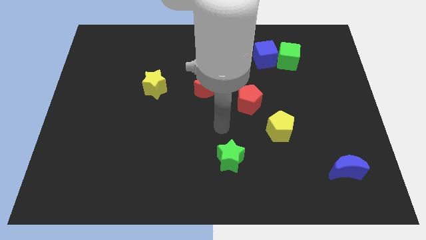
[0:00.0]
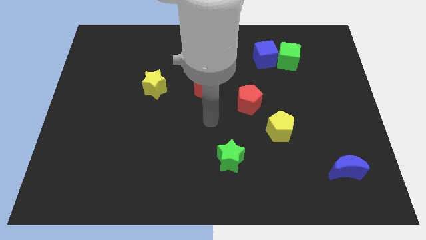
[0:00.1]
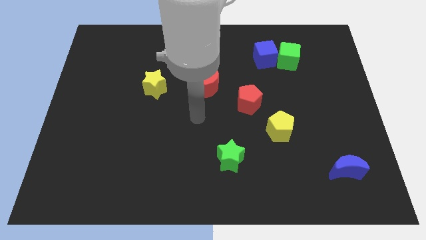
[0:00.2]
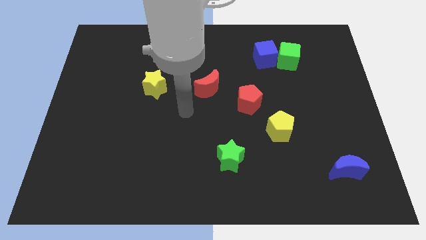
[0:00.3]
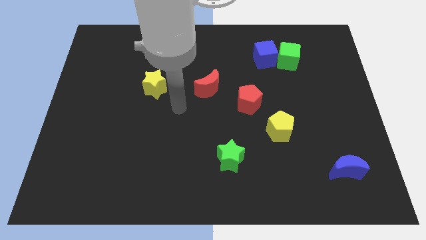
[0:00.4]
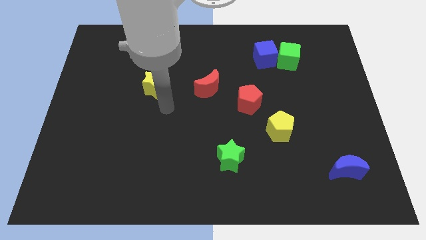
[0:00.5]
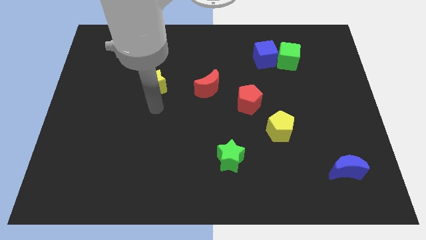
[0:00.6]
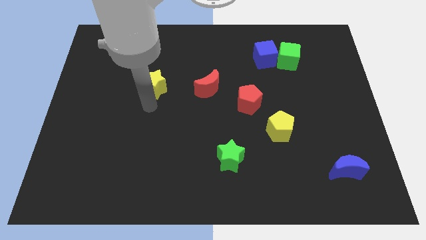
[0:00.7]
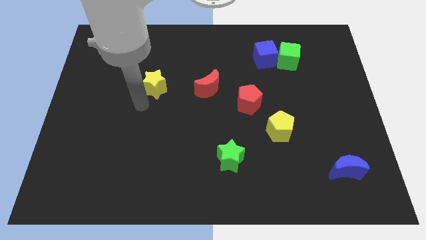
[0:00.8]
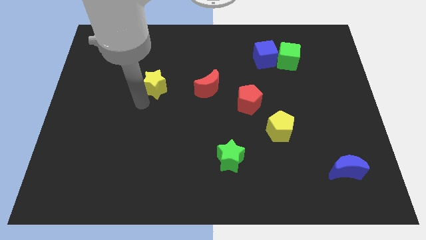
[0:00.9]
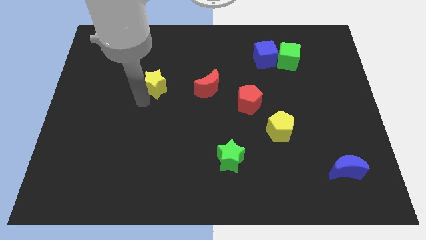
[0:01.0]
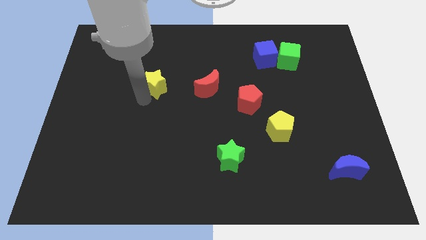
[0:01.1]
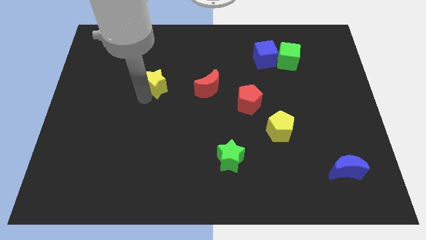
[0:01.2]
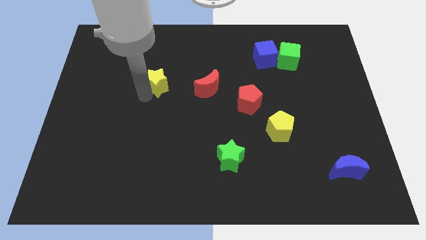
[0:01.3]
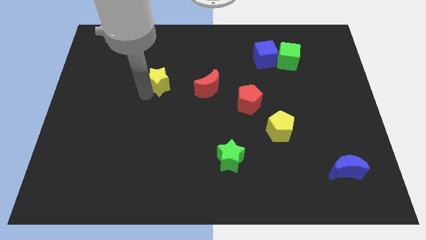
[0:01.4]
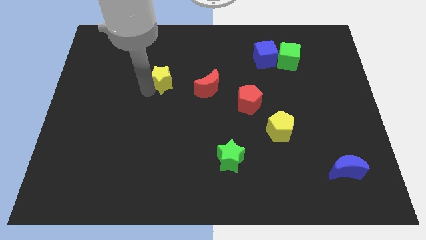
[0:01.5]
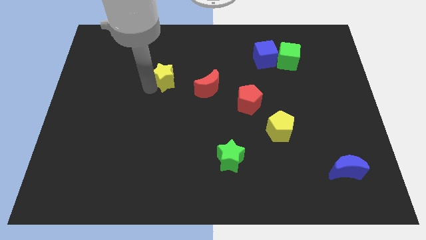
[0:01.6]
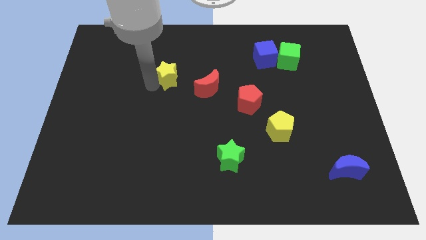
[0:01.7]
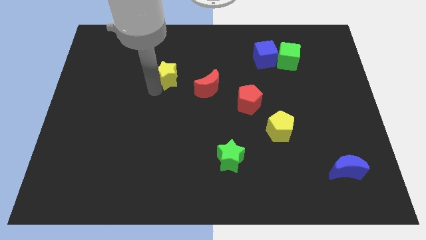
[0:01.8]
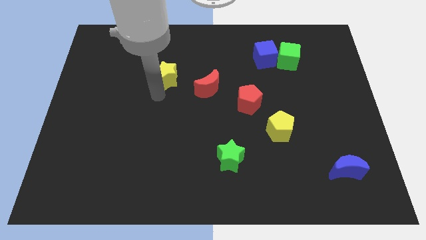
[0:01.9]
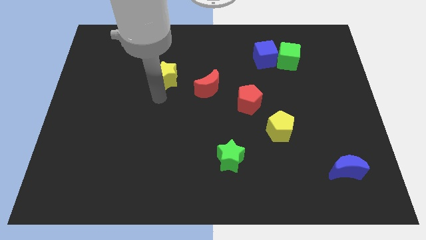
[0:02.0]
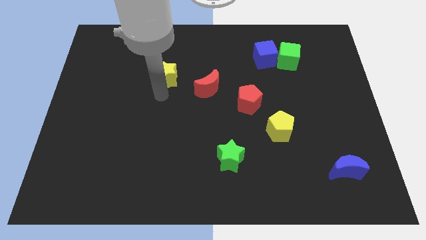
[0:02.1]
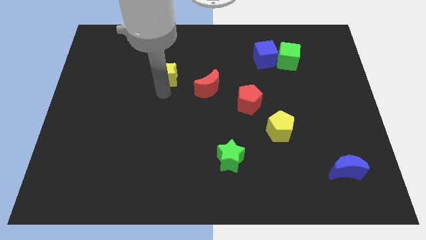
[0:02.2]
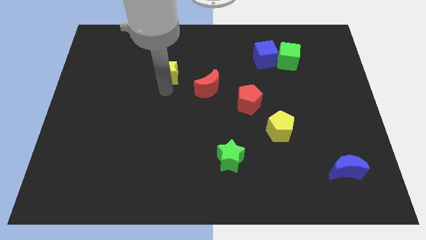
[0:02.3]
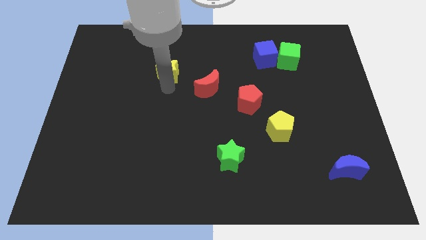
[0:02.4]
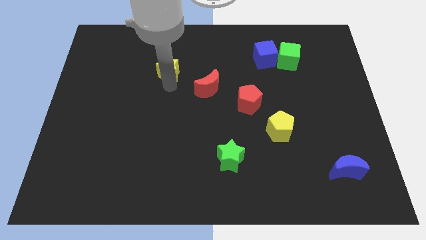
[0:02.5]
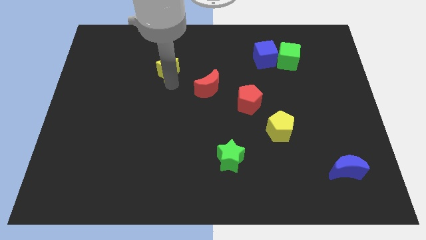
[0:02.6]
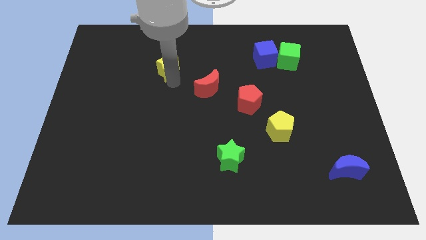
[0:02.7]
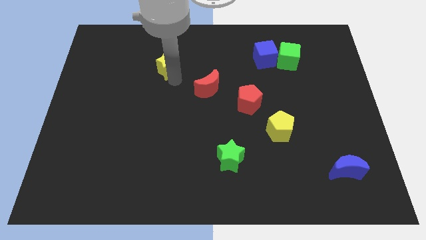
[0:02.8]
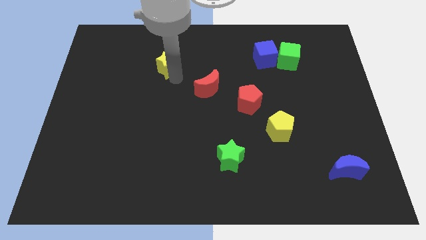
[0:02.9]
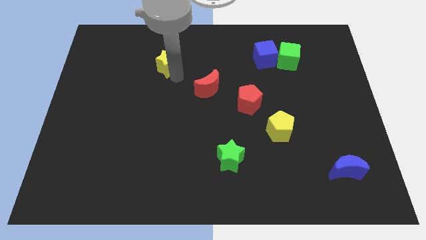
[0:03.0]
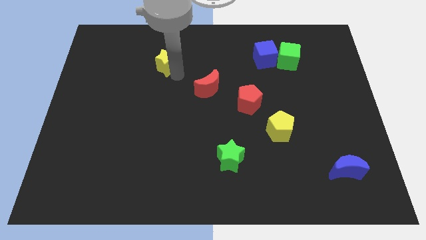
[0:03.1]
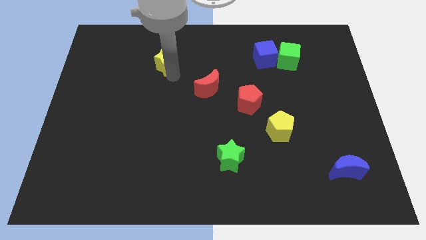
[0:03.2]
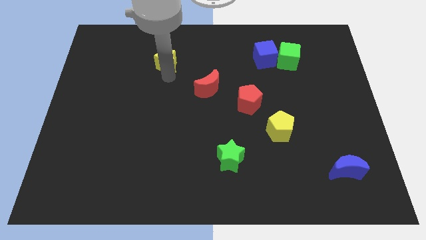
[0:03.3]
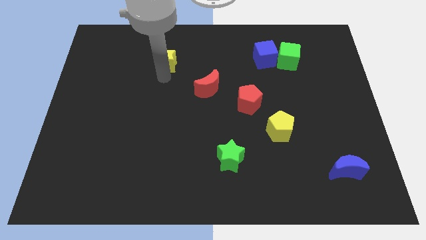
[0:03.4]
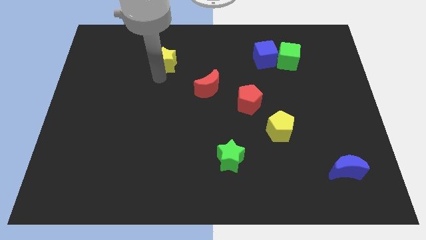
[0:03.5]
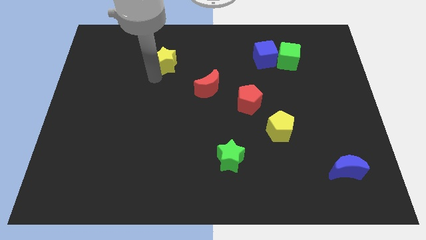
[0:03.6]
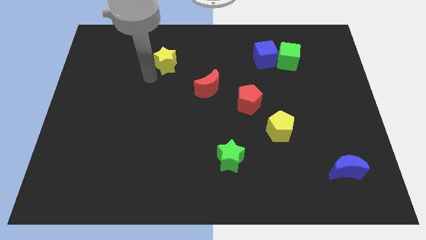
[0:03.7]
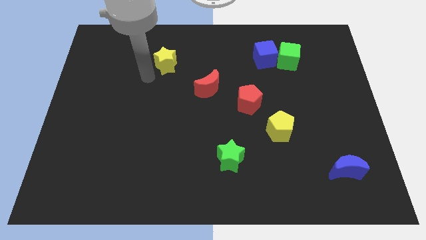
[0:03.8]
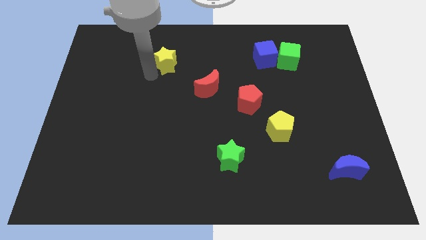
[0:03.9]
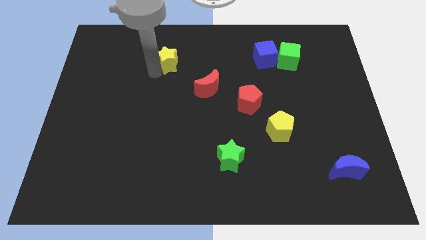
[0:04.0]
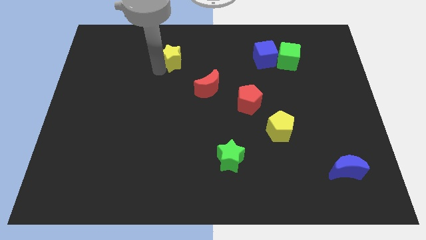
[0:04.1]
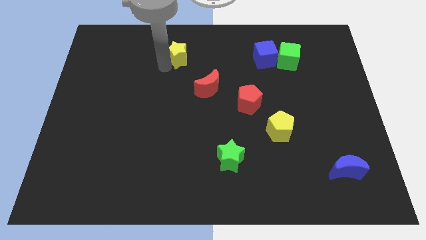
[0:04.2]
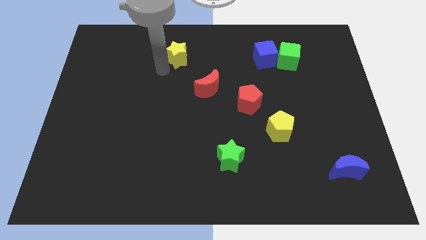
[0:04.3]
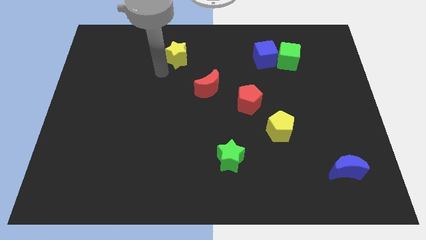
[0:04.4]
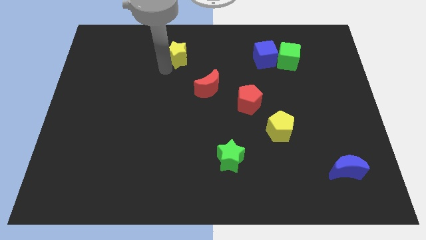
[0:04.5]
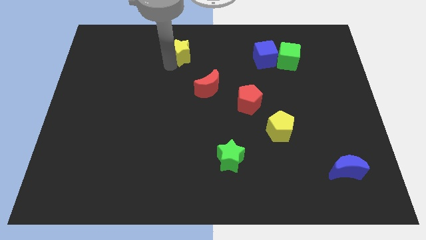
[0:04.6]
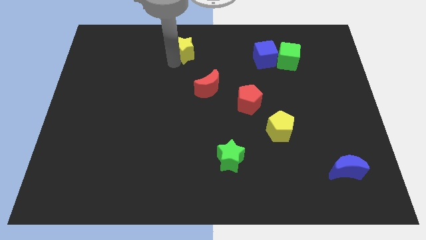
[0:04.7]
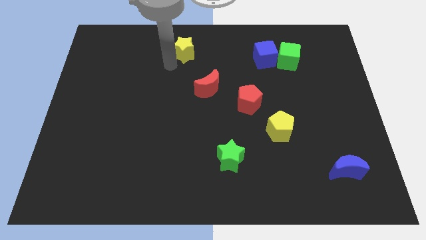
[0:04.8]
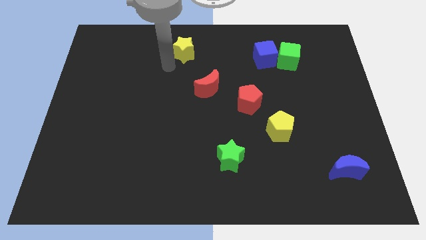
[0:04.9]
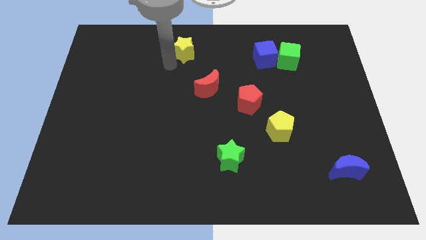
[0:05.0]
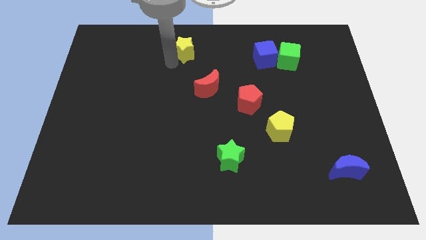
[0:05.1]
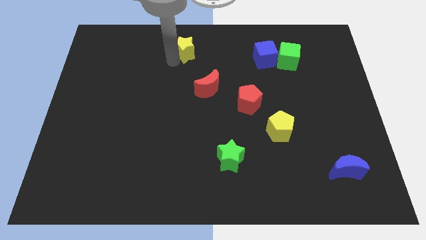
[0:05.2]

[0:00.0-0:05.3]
slide the yellow star to the towards your base

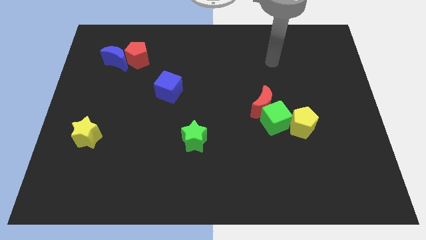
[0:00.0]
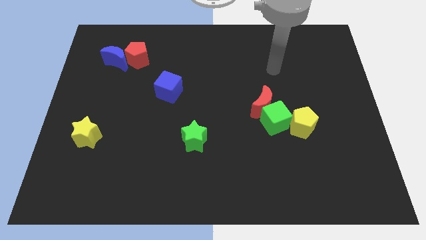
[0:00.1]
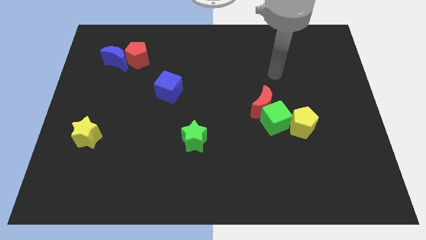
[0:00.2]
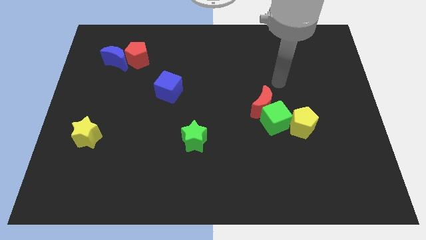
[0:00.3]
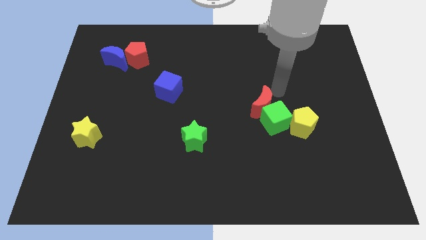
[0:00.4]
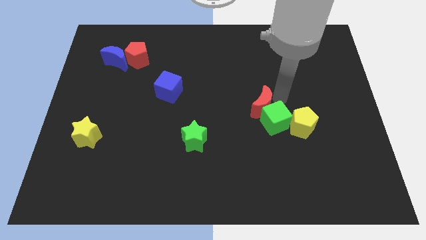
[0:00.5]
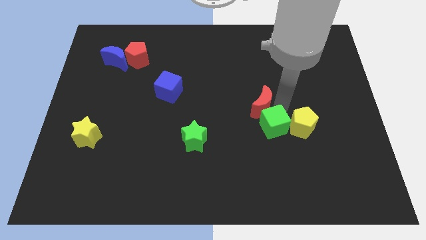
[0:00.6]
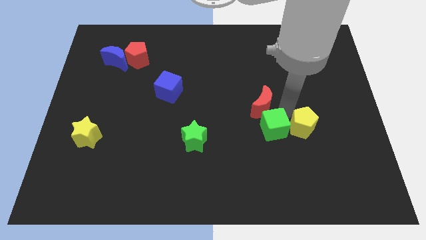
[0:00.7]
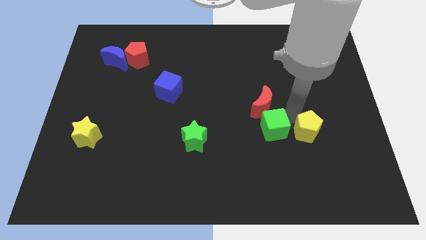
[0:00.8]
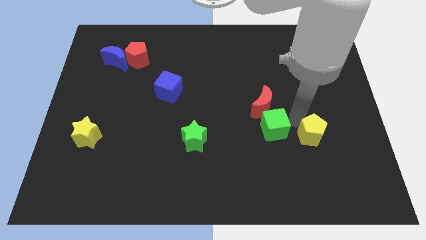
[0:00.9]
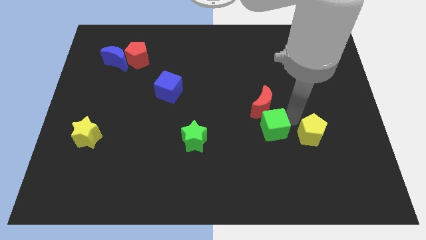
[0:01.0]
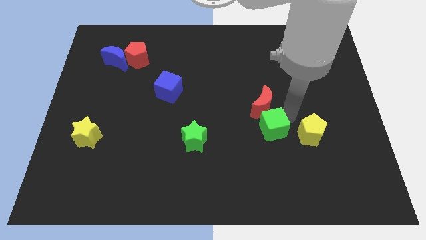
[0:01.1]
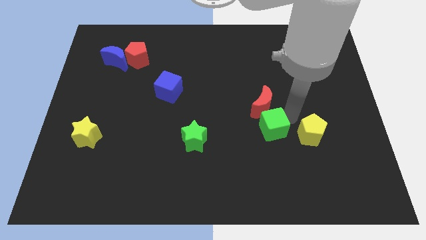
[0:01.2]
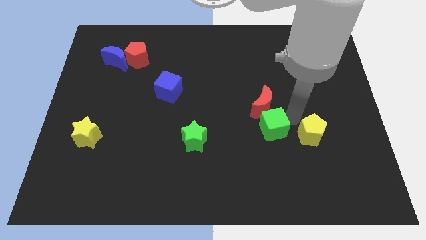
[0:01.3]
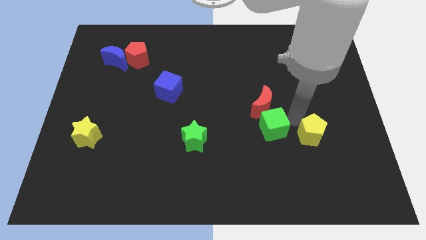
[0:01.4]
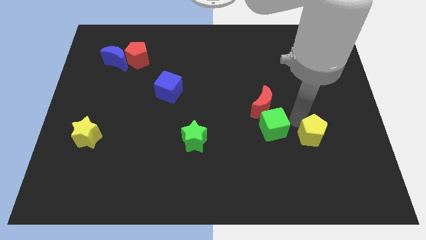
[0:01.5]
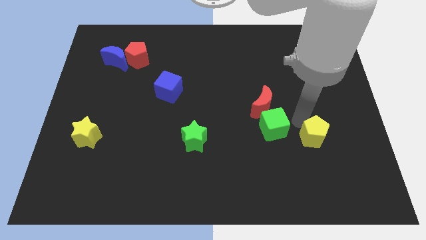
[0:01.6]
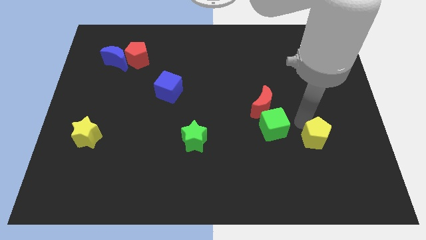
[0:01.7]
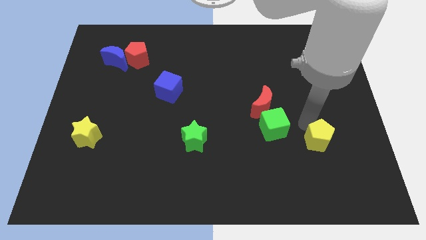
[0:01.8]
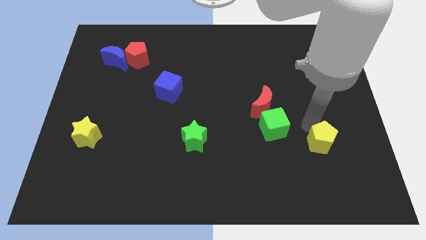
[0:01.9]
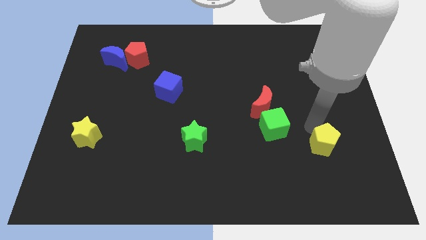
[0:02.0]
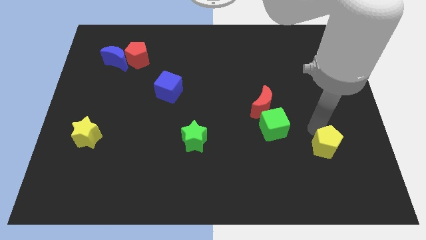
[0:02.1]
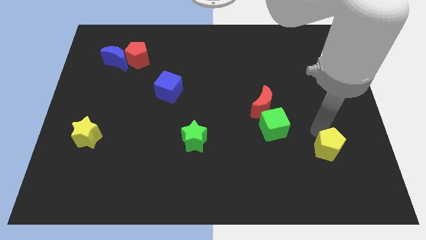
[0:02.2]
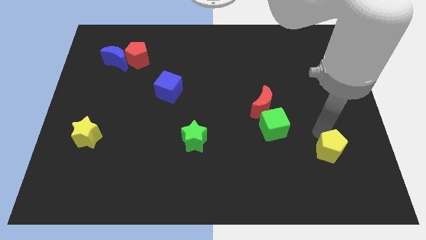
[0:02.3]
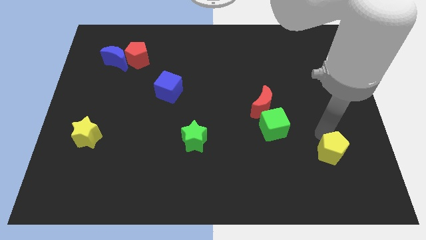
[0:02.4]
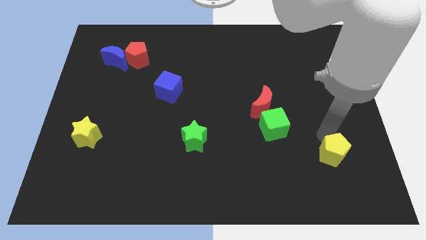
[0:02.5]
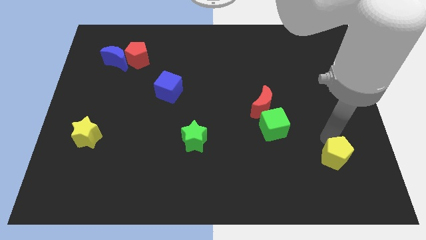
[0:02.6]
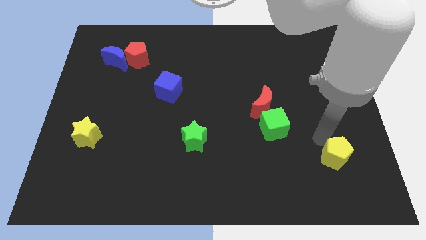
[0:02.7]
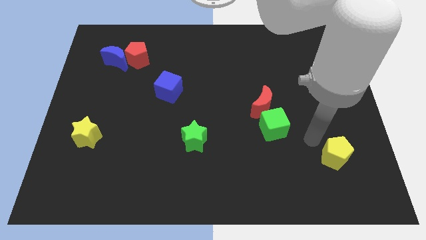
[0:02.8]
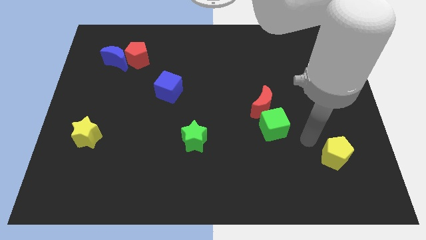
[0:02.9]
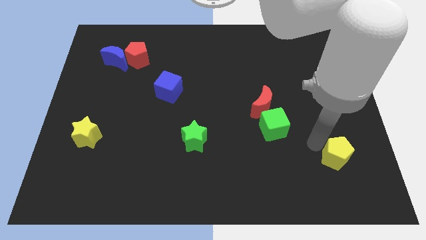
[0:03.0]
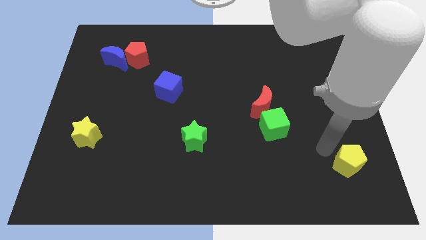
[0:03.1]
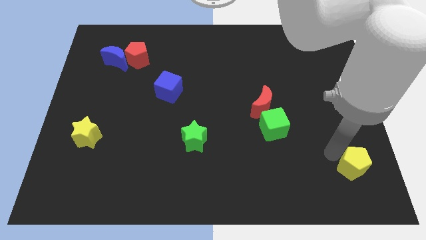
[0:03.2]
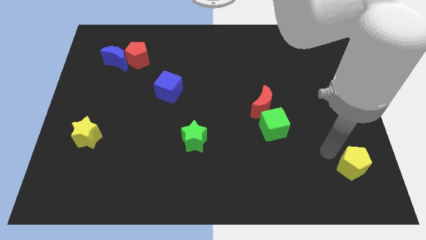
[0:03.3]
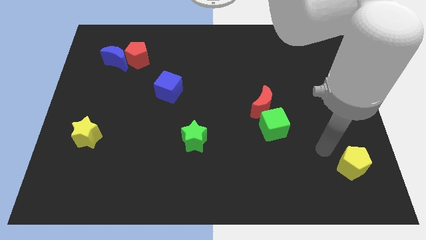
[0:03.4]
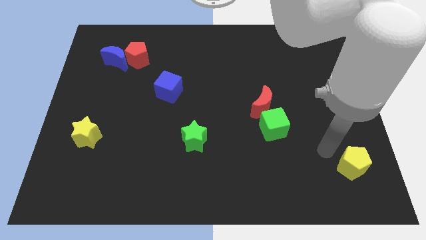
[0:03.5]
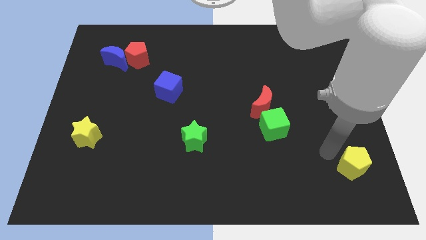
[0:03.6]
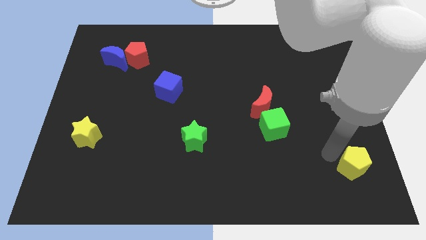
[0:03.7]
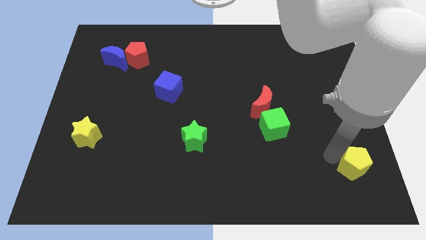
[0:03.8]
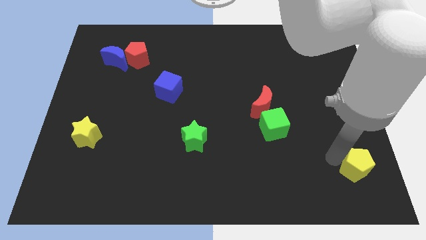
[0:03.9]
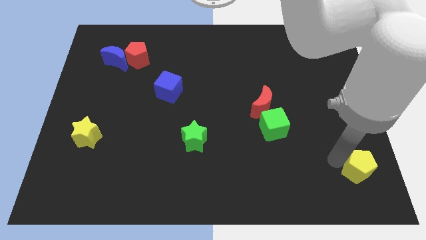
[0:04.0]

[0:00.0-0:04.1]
slide the yellow pentagon to the bottom right
